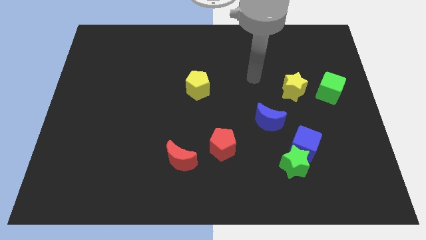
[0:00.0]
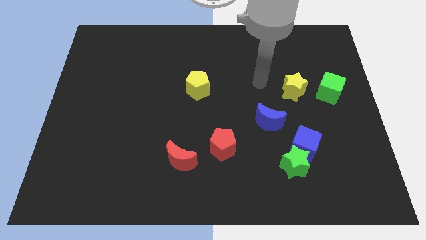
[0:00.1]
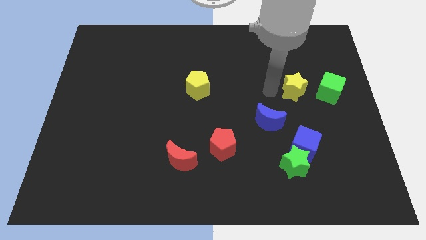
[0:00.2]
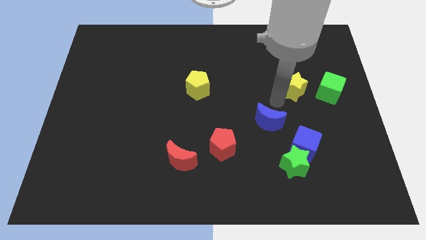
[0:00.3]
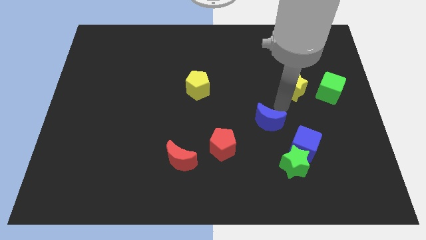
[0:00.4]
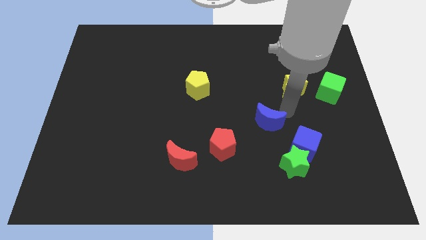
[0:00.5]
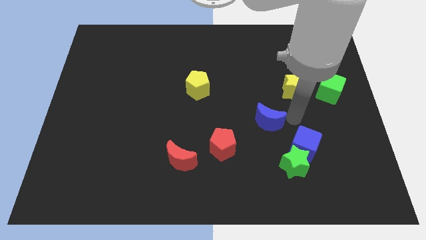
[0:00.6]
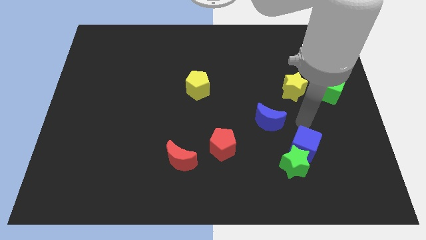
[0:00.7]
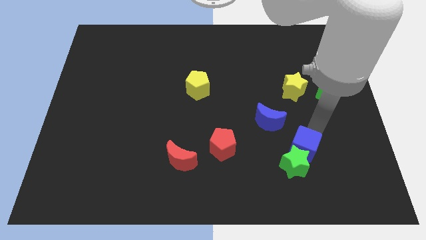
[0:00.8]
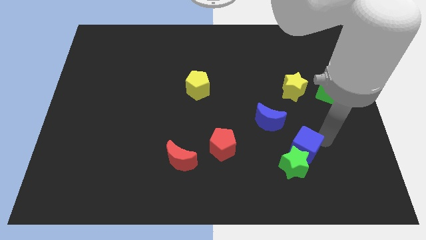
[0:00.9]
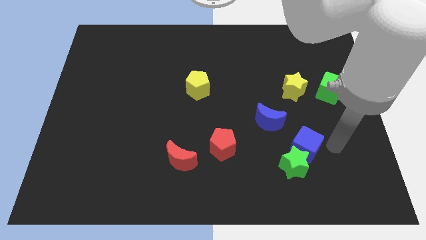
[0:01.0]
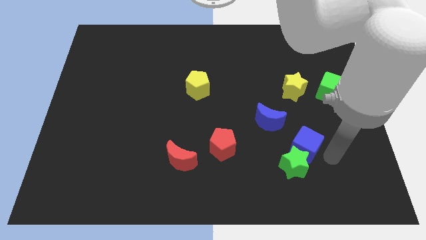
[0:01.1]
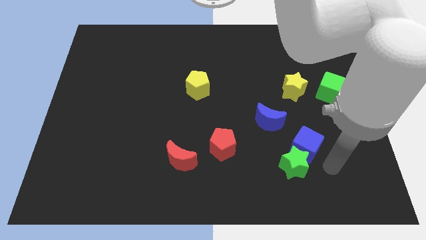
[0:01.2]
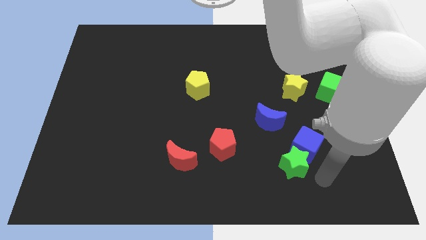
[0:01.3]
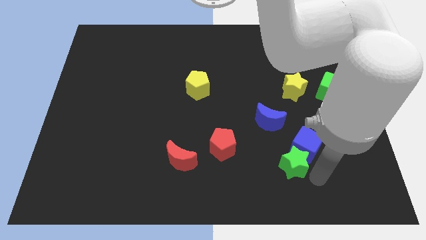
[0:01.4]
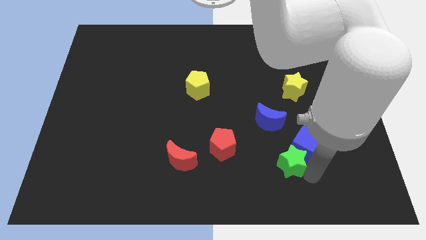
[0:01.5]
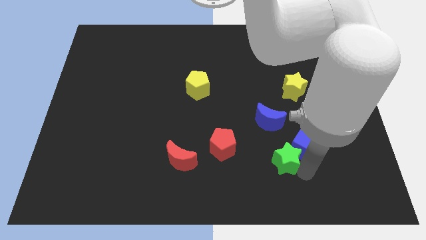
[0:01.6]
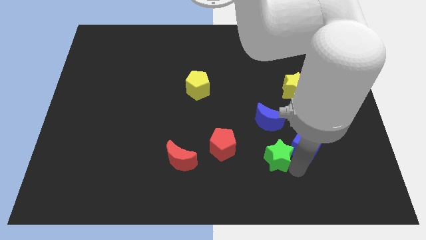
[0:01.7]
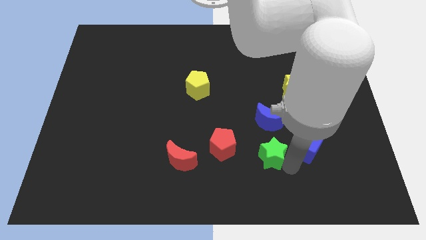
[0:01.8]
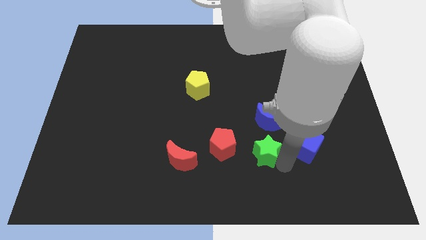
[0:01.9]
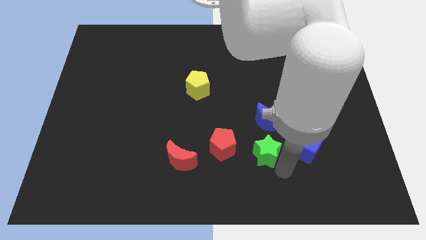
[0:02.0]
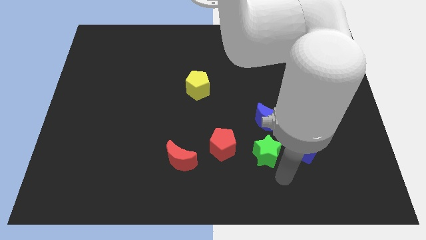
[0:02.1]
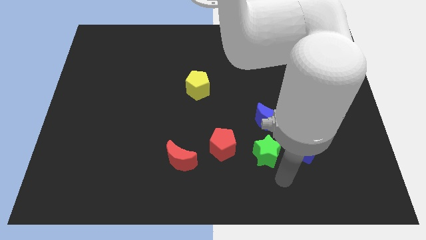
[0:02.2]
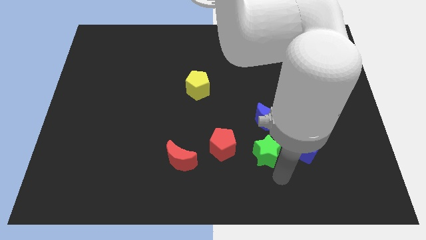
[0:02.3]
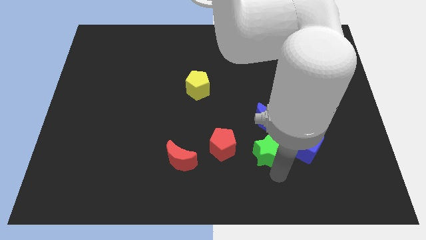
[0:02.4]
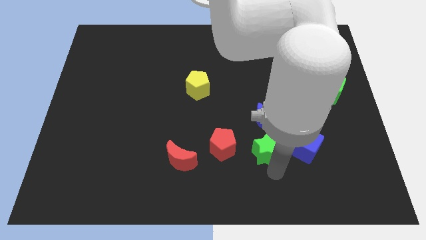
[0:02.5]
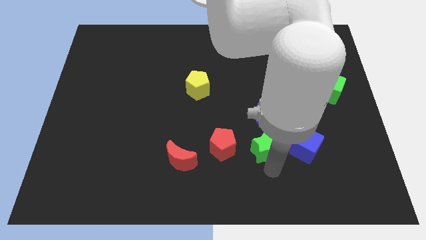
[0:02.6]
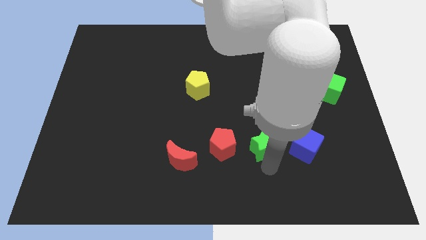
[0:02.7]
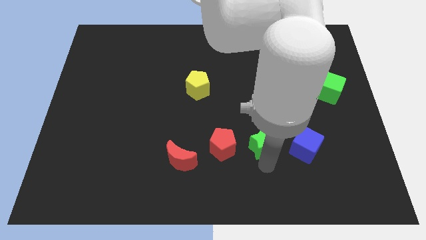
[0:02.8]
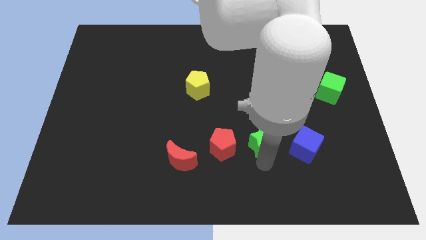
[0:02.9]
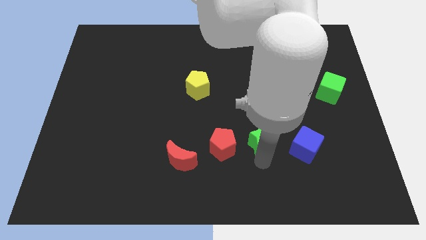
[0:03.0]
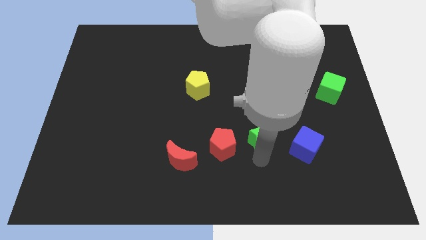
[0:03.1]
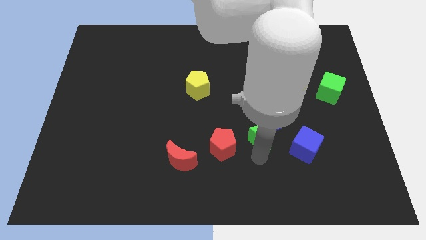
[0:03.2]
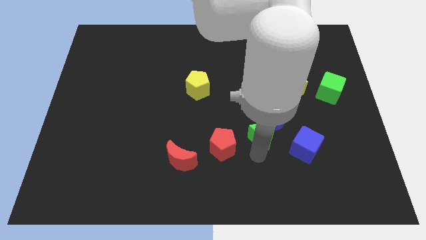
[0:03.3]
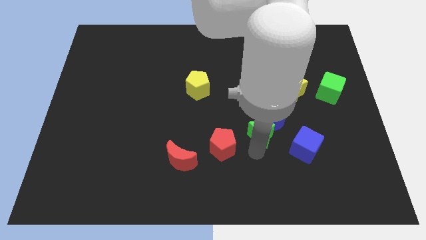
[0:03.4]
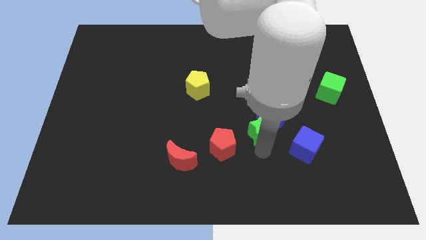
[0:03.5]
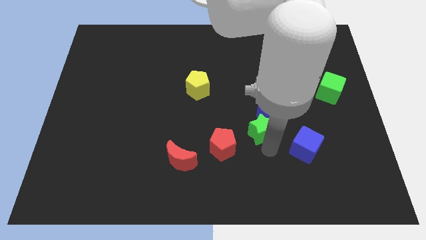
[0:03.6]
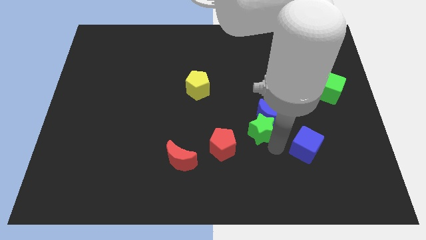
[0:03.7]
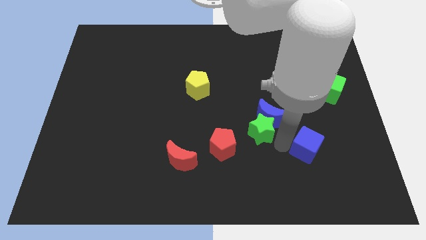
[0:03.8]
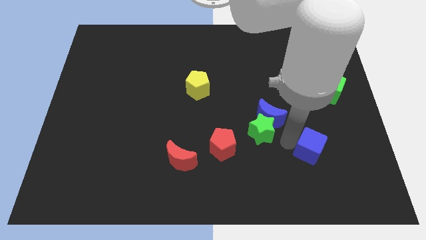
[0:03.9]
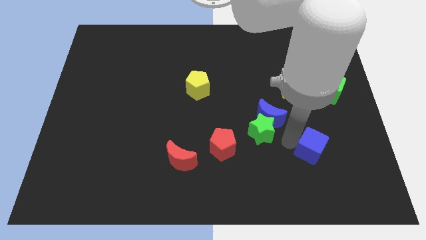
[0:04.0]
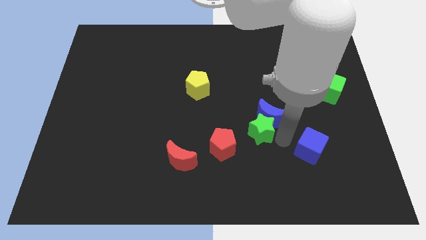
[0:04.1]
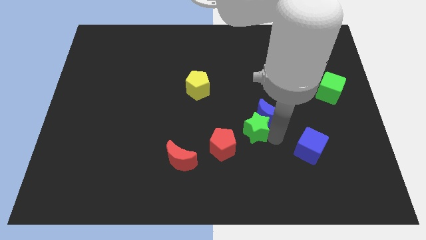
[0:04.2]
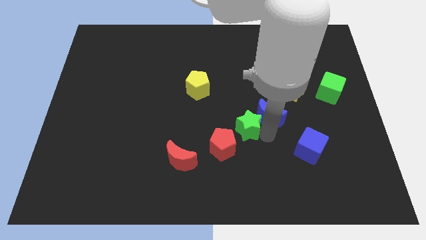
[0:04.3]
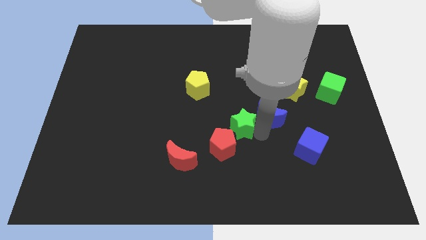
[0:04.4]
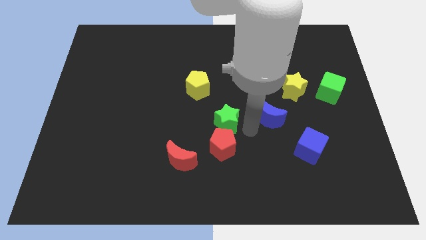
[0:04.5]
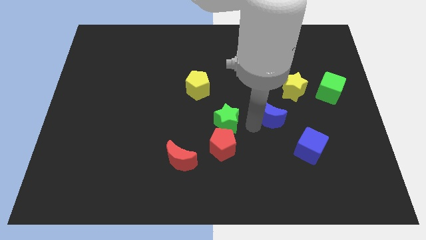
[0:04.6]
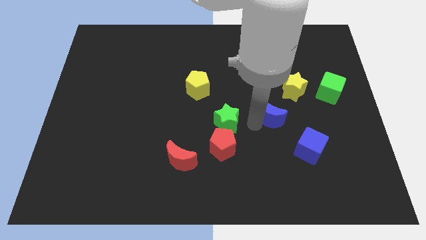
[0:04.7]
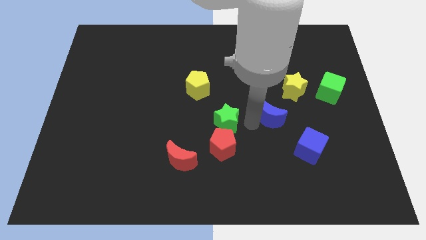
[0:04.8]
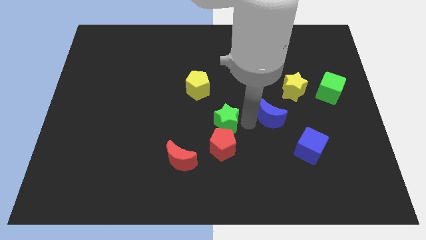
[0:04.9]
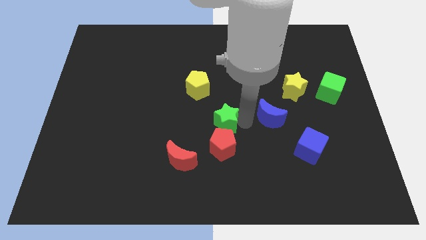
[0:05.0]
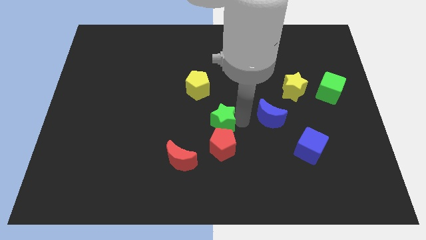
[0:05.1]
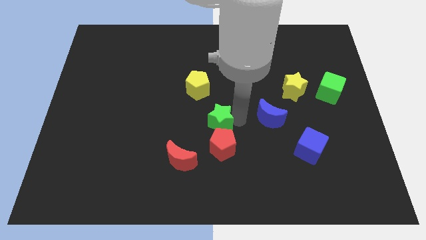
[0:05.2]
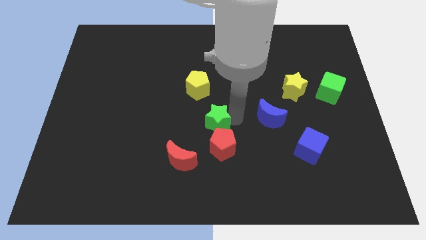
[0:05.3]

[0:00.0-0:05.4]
slide the green star to the bottom of the yellow pentagon

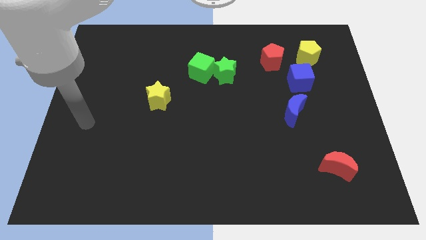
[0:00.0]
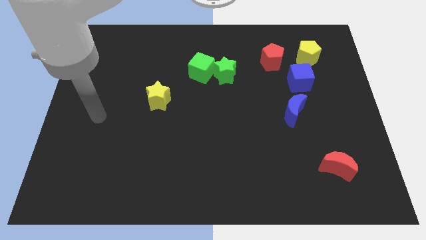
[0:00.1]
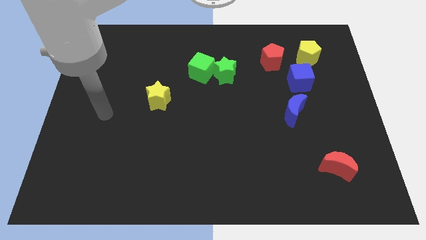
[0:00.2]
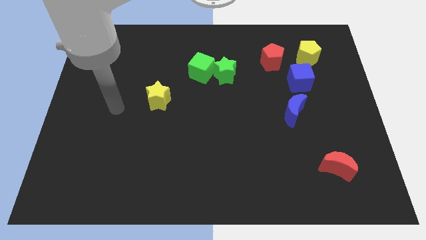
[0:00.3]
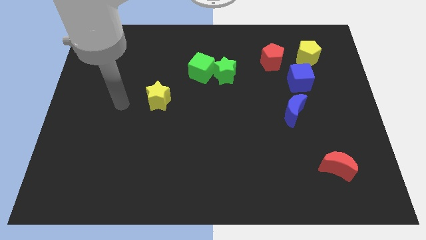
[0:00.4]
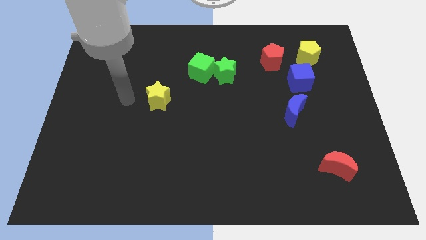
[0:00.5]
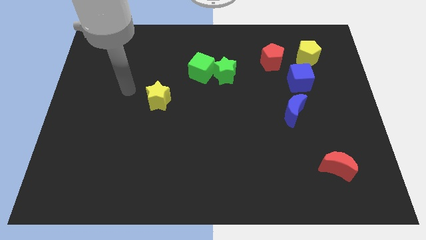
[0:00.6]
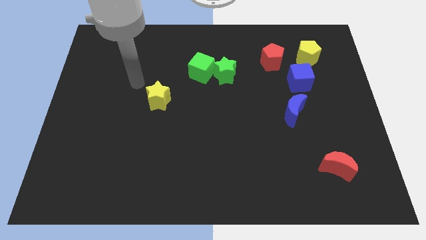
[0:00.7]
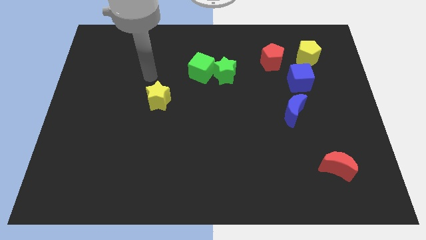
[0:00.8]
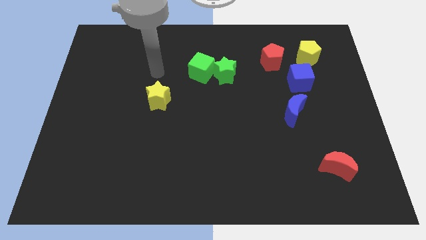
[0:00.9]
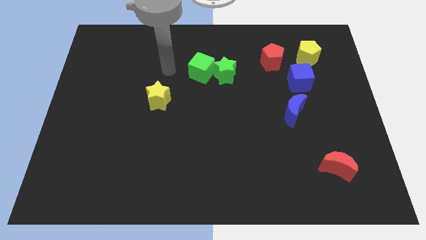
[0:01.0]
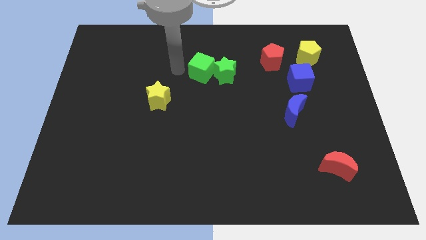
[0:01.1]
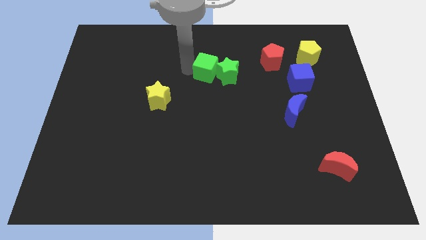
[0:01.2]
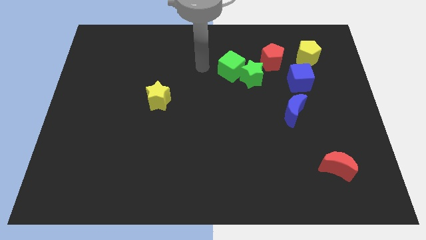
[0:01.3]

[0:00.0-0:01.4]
put the green star to the left of the blue cube

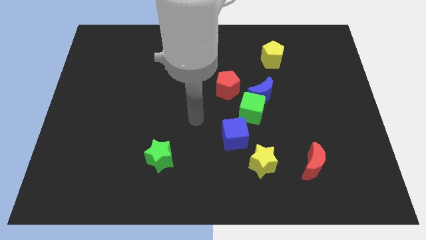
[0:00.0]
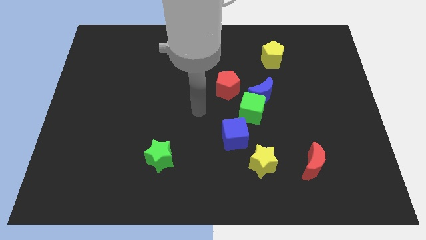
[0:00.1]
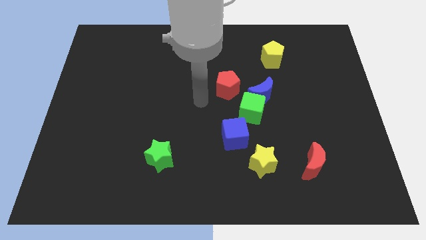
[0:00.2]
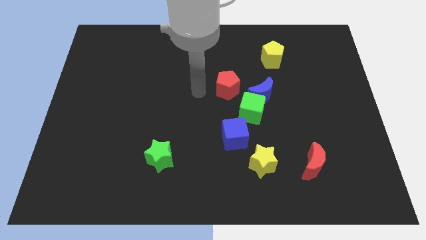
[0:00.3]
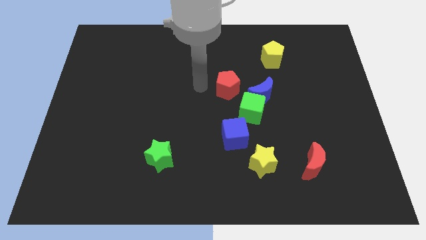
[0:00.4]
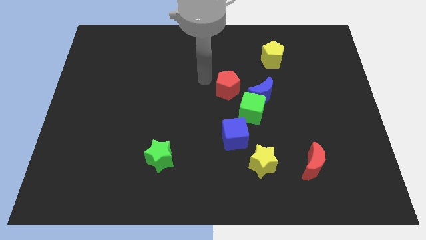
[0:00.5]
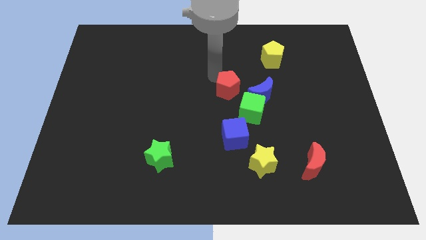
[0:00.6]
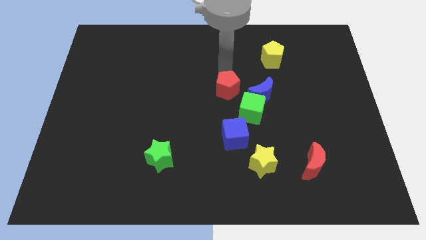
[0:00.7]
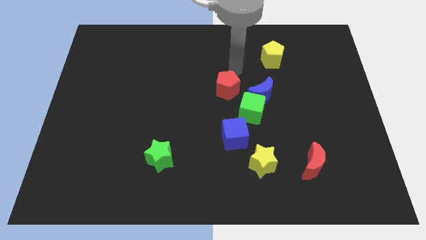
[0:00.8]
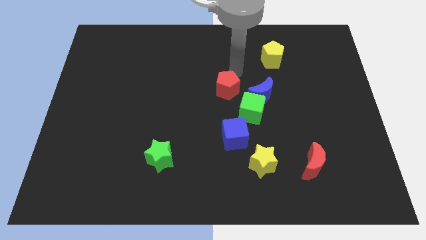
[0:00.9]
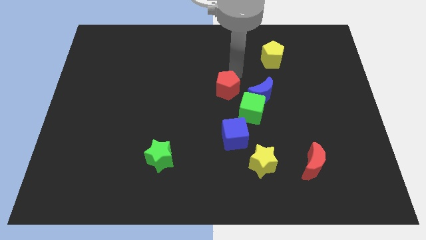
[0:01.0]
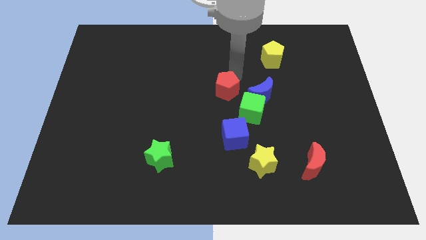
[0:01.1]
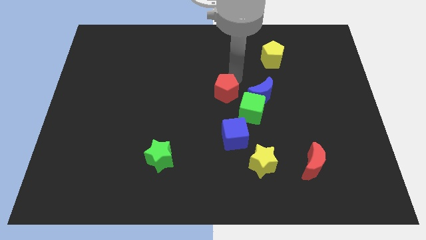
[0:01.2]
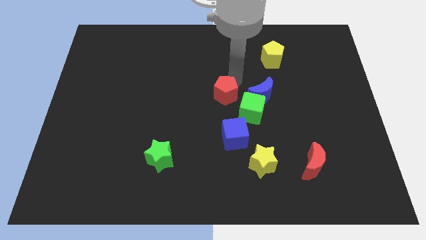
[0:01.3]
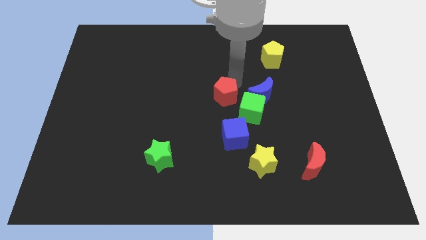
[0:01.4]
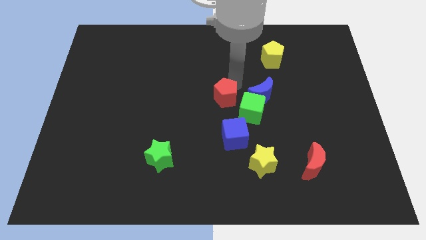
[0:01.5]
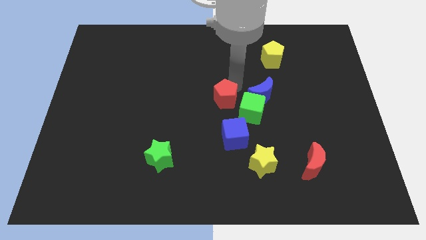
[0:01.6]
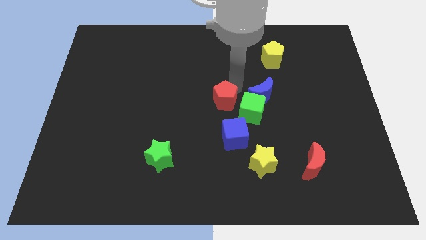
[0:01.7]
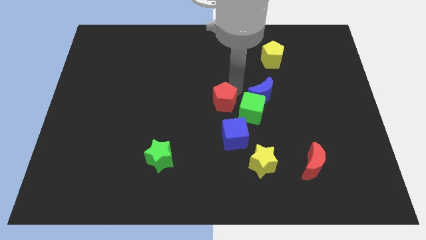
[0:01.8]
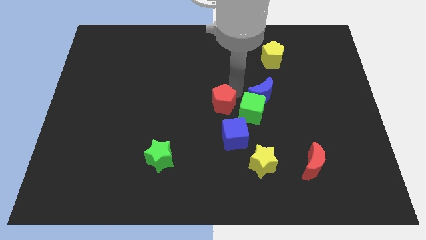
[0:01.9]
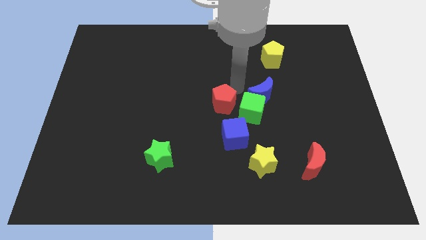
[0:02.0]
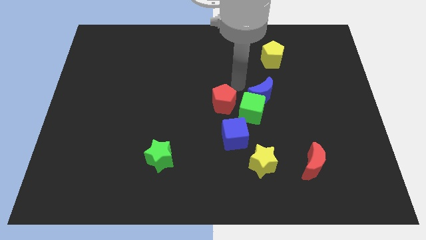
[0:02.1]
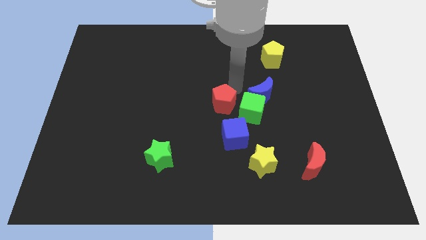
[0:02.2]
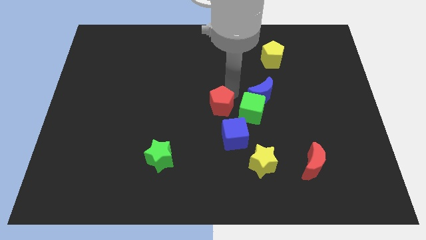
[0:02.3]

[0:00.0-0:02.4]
slide the red pentagon diagonally up and to the left of the blue cube
